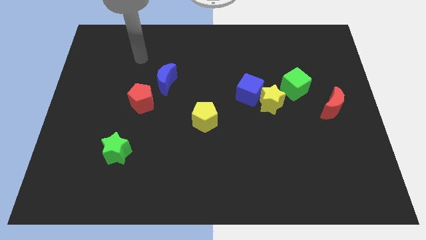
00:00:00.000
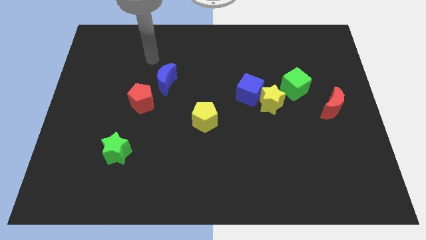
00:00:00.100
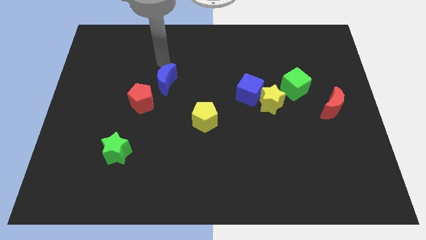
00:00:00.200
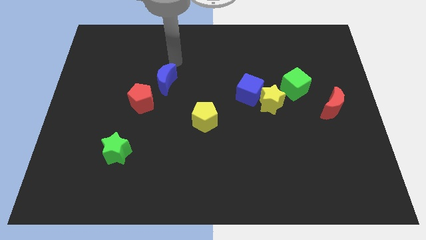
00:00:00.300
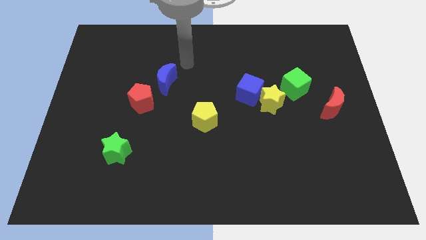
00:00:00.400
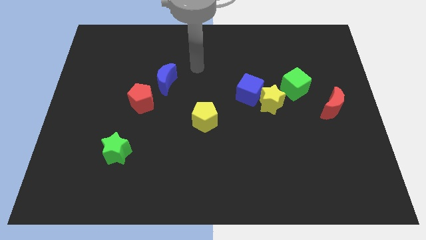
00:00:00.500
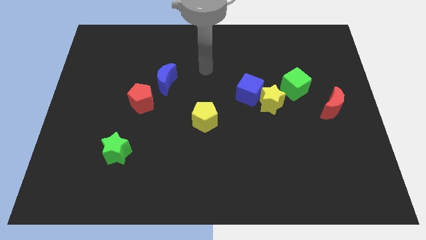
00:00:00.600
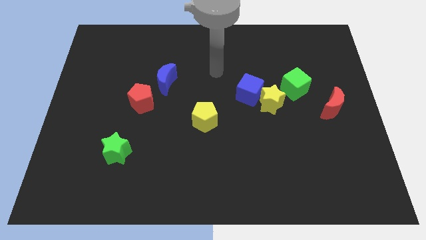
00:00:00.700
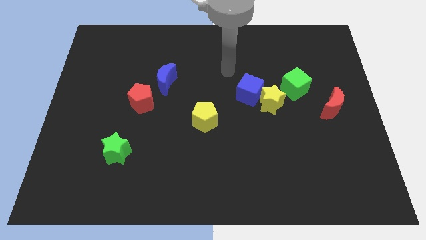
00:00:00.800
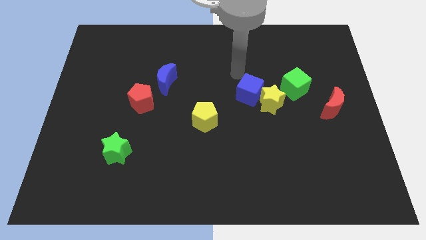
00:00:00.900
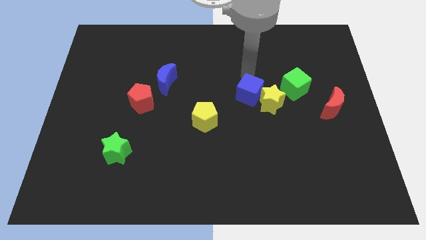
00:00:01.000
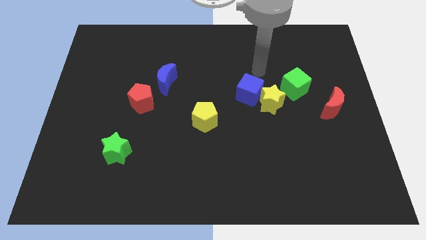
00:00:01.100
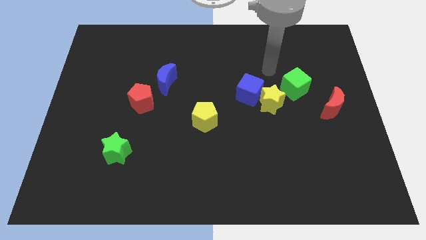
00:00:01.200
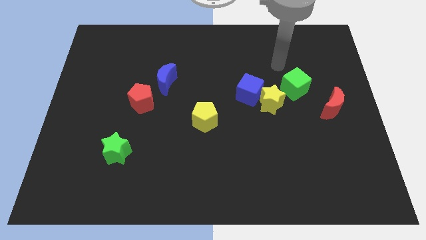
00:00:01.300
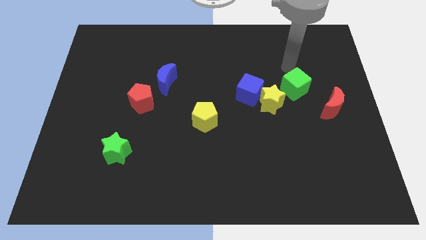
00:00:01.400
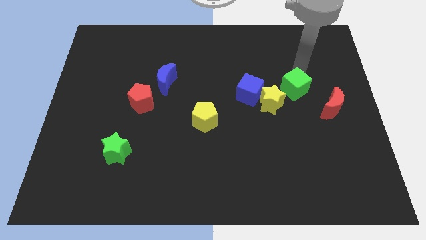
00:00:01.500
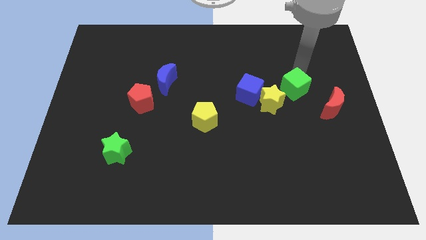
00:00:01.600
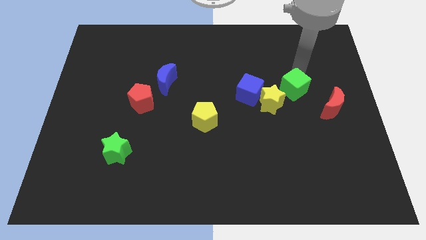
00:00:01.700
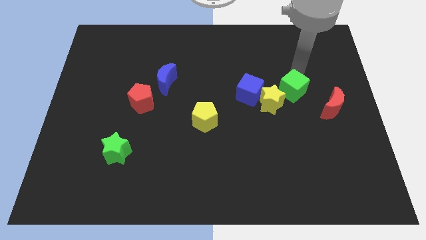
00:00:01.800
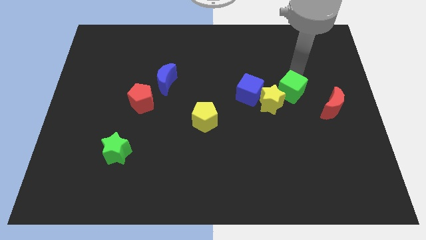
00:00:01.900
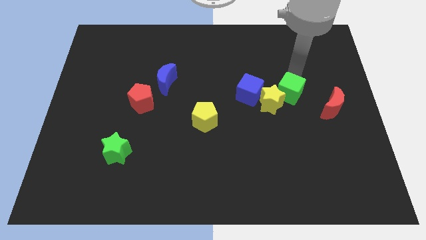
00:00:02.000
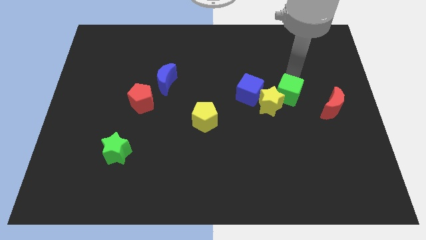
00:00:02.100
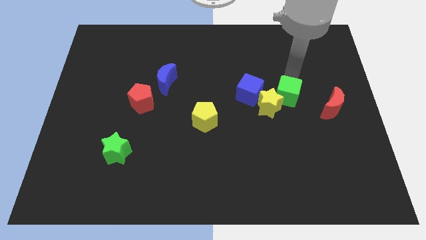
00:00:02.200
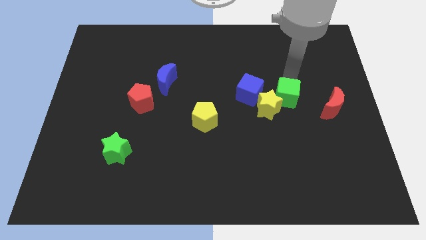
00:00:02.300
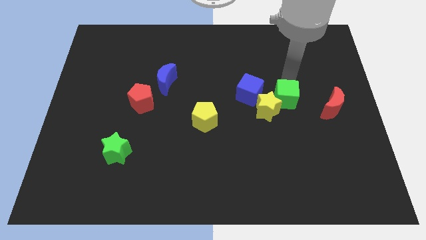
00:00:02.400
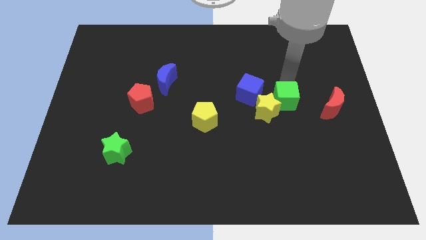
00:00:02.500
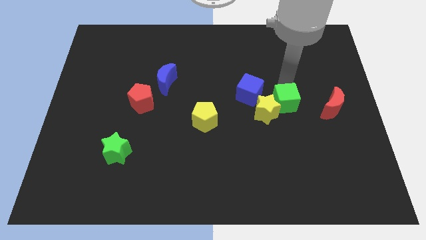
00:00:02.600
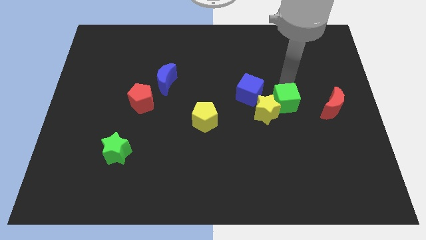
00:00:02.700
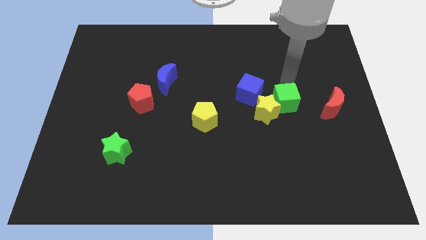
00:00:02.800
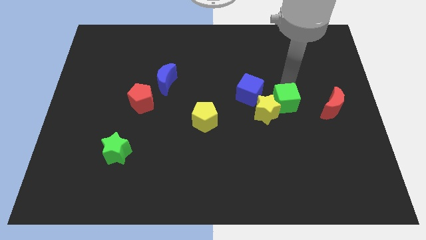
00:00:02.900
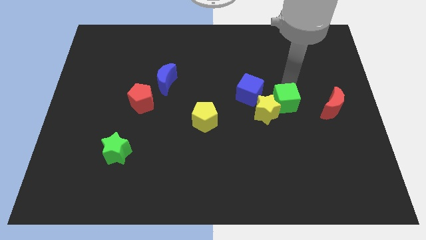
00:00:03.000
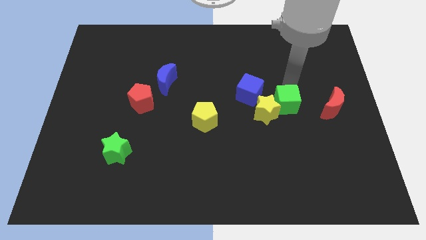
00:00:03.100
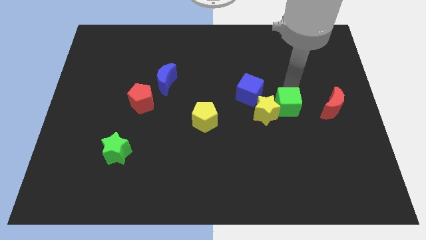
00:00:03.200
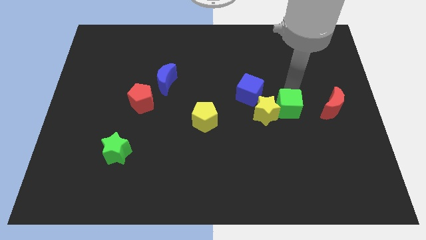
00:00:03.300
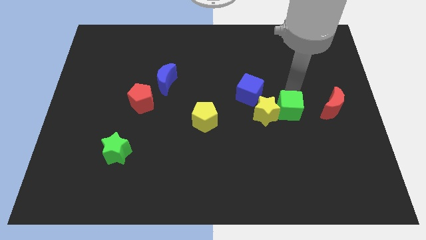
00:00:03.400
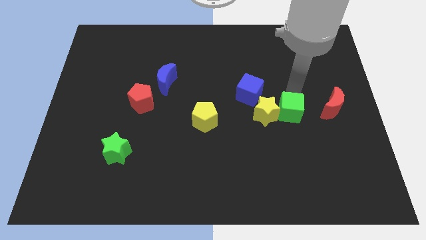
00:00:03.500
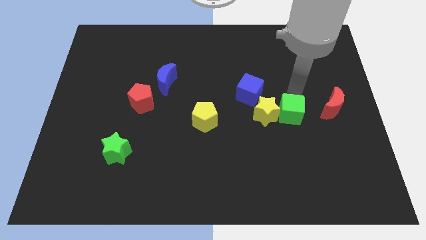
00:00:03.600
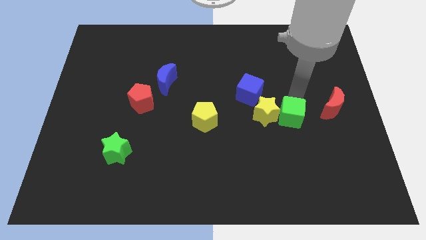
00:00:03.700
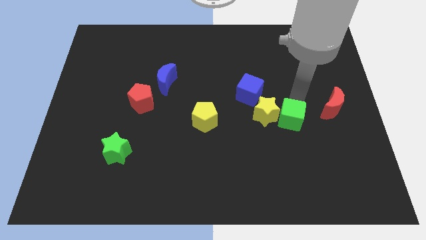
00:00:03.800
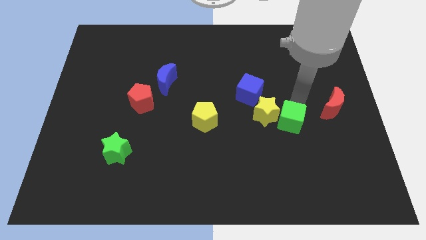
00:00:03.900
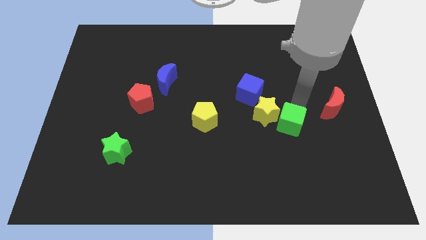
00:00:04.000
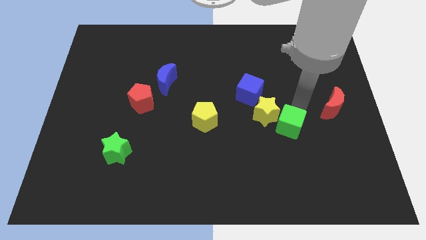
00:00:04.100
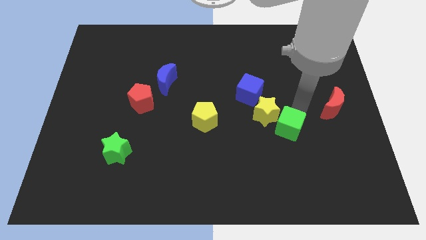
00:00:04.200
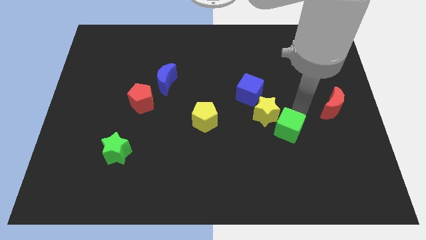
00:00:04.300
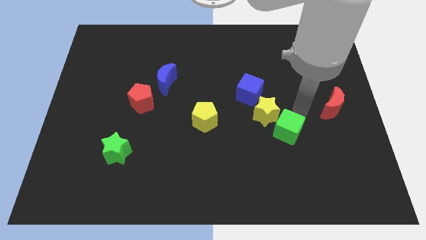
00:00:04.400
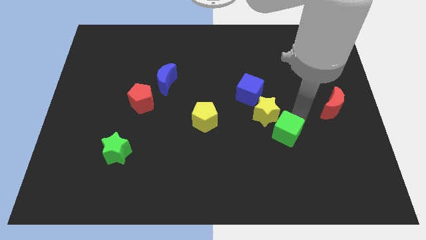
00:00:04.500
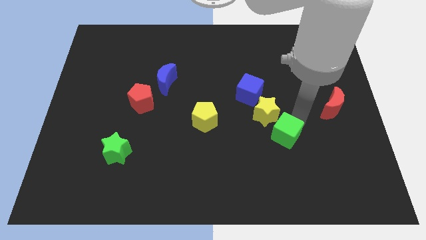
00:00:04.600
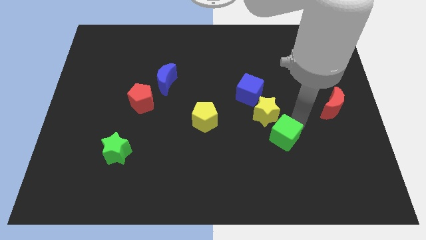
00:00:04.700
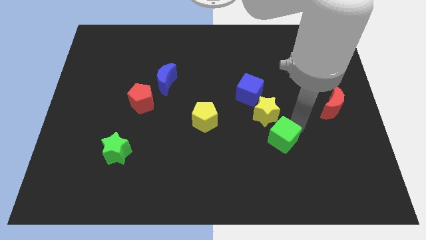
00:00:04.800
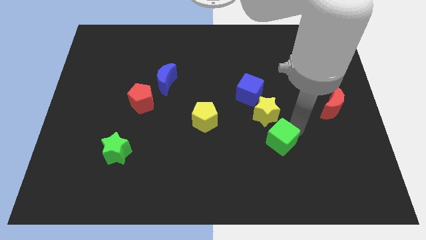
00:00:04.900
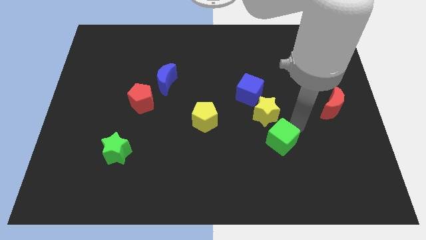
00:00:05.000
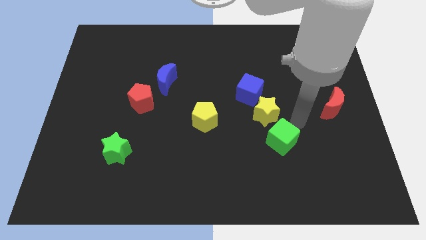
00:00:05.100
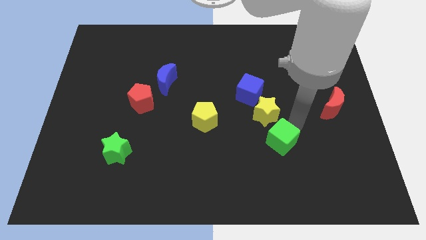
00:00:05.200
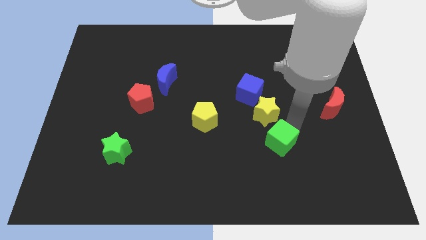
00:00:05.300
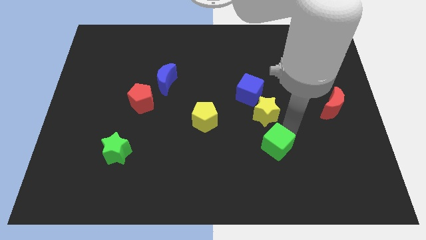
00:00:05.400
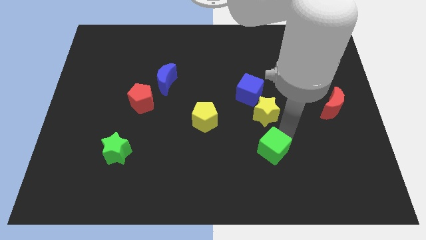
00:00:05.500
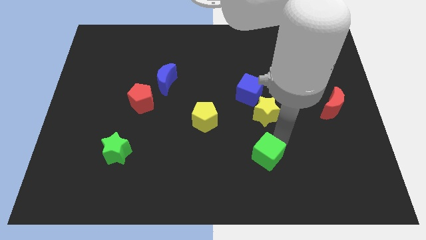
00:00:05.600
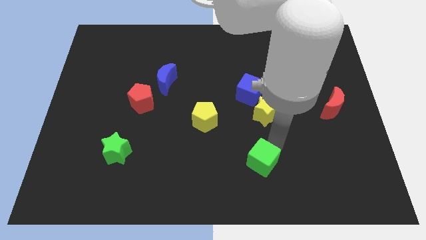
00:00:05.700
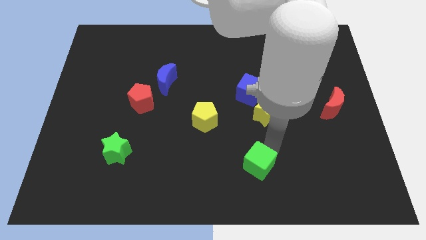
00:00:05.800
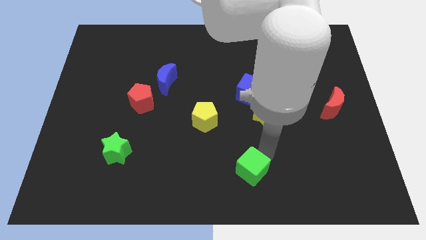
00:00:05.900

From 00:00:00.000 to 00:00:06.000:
move the green cube to the bottom

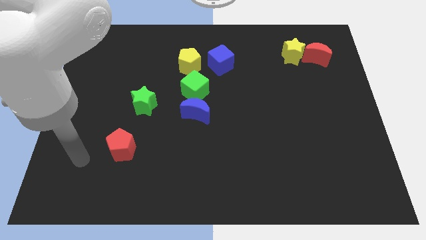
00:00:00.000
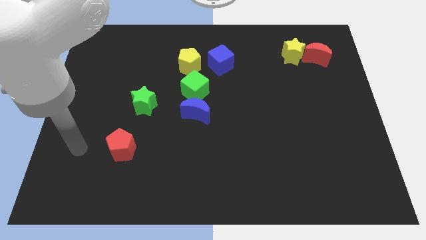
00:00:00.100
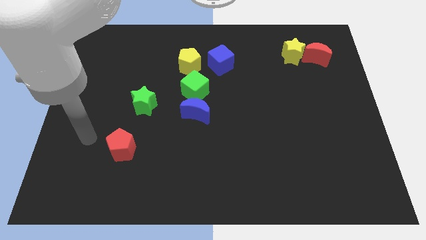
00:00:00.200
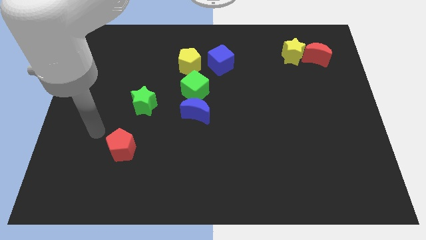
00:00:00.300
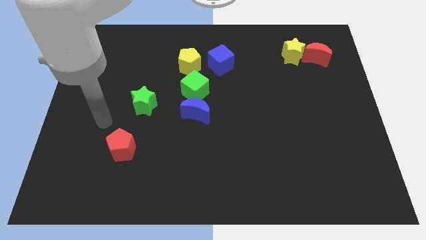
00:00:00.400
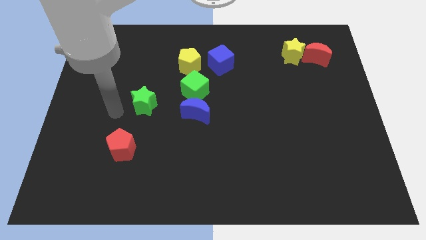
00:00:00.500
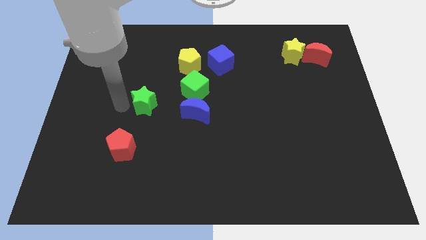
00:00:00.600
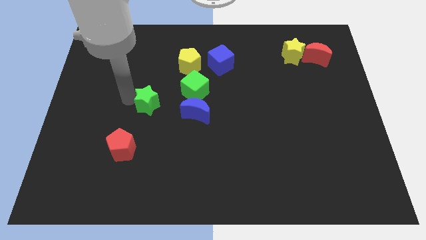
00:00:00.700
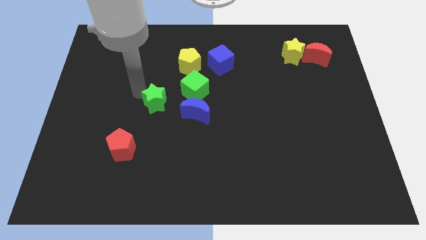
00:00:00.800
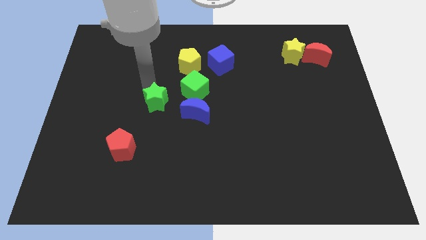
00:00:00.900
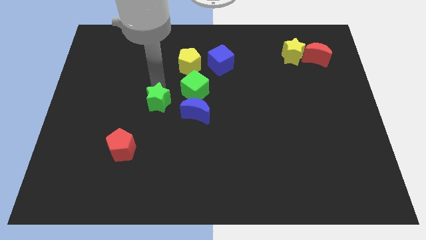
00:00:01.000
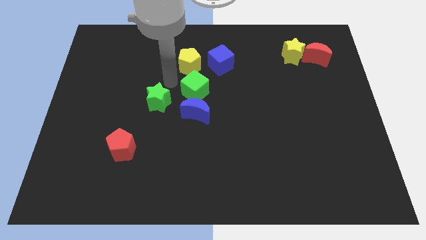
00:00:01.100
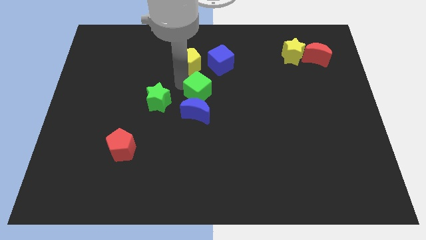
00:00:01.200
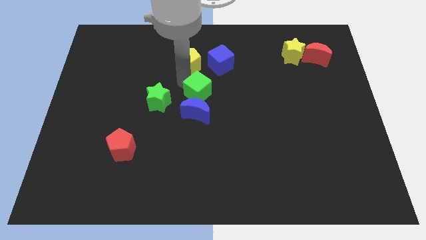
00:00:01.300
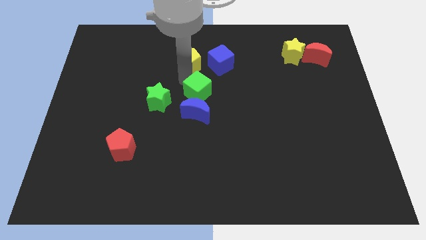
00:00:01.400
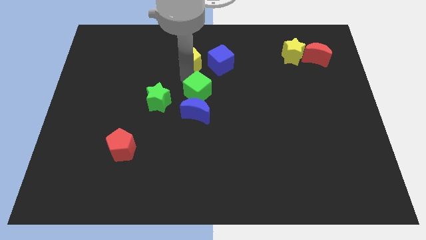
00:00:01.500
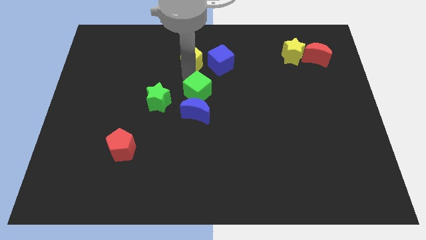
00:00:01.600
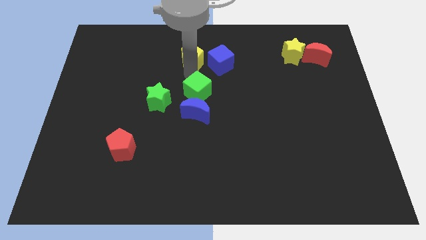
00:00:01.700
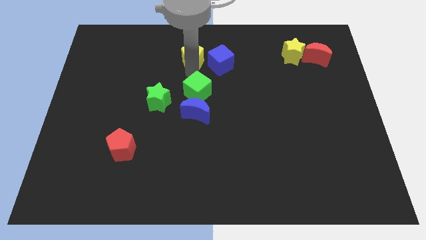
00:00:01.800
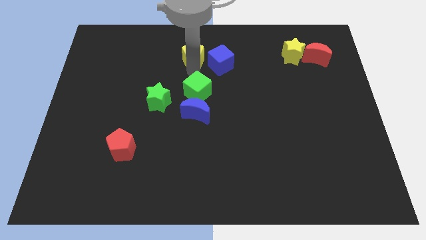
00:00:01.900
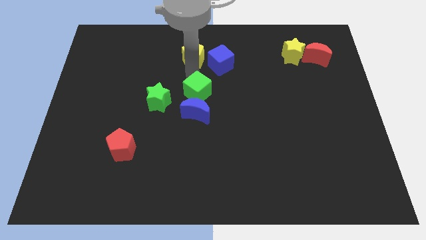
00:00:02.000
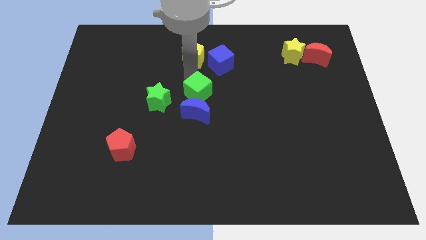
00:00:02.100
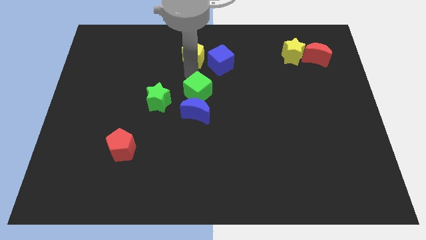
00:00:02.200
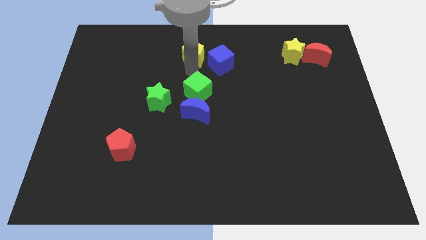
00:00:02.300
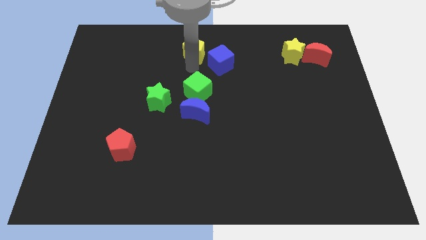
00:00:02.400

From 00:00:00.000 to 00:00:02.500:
put the yellow pentagon to the top side
